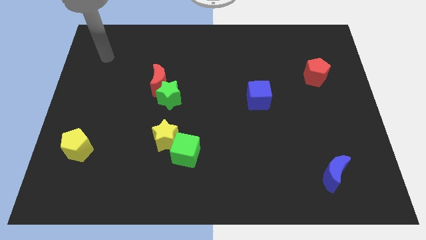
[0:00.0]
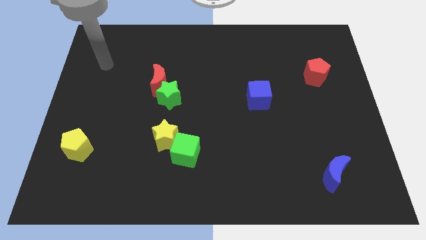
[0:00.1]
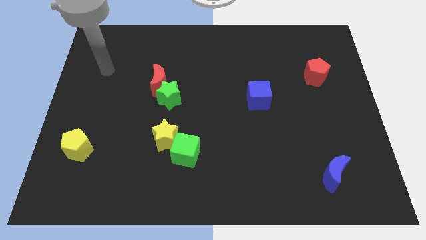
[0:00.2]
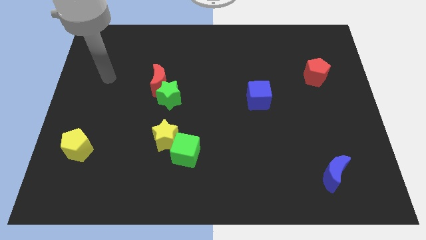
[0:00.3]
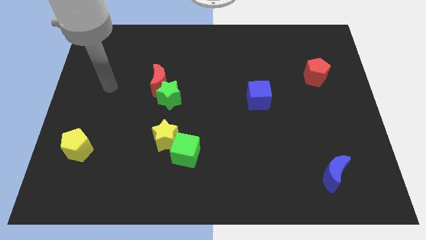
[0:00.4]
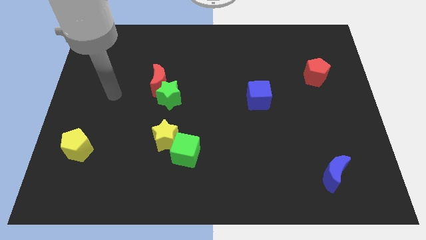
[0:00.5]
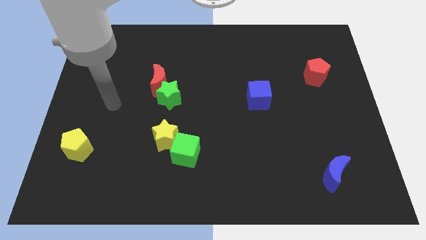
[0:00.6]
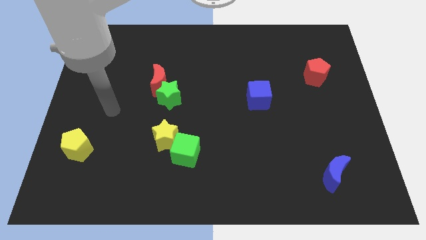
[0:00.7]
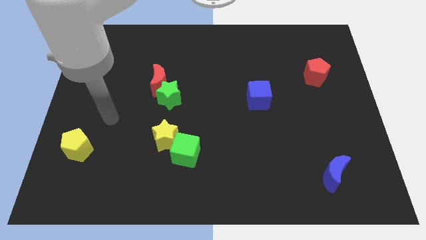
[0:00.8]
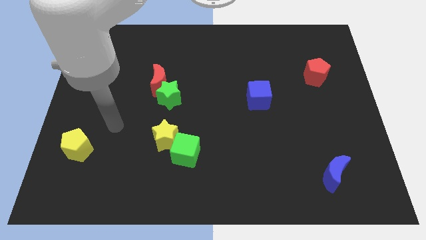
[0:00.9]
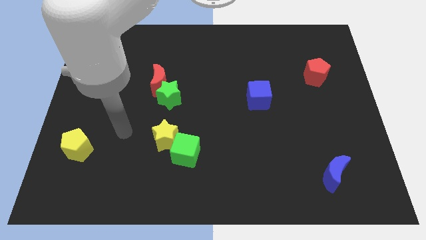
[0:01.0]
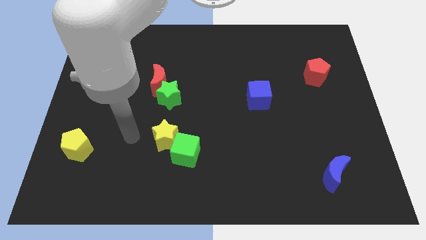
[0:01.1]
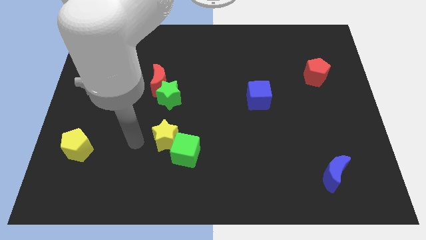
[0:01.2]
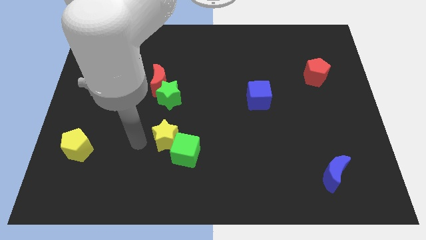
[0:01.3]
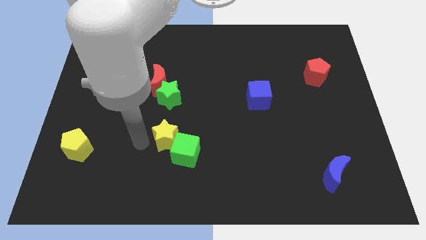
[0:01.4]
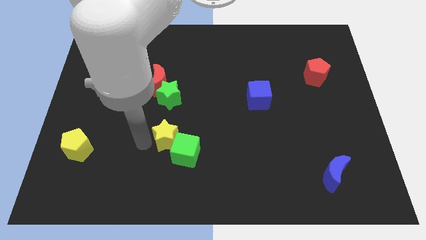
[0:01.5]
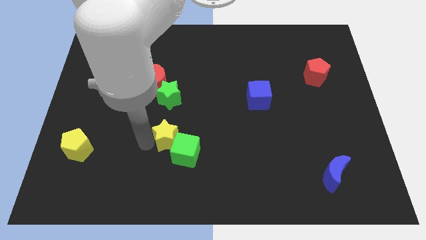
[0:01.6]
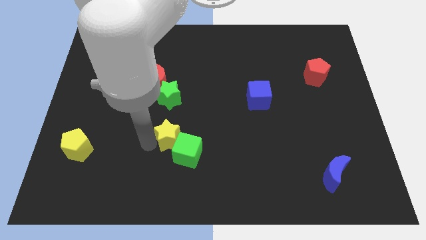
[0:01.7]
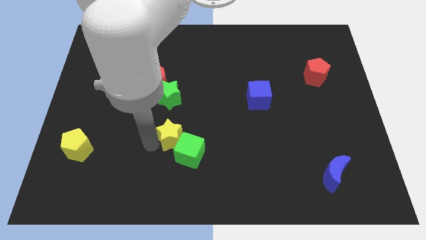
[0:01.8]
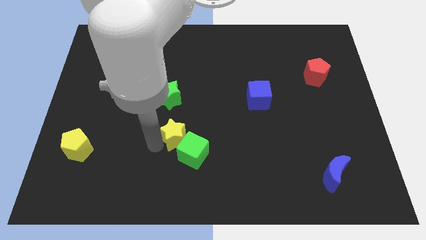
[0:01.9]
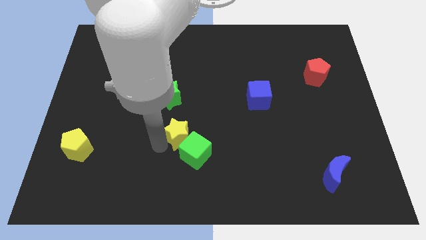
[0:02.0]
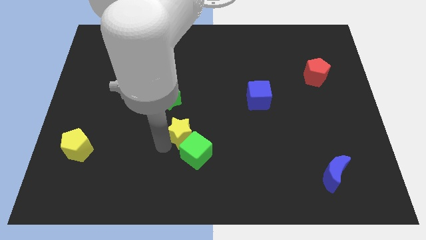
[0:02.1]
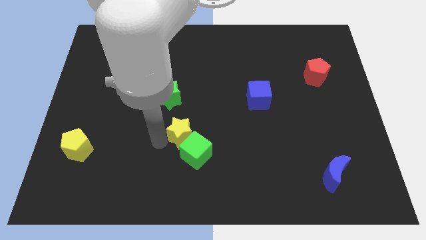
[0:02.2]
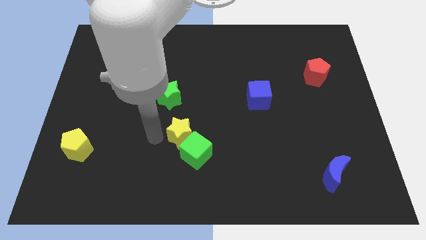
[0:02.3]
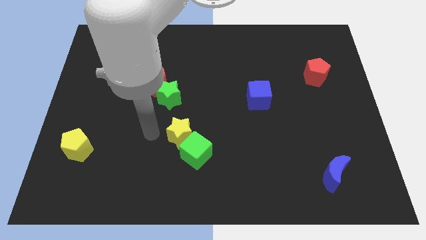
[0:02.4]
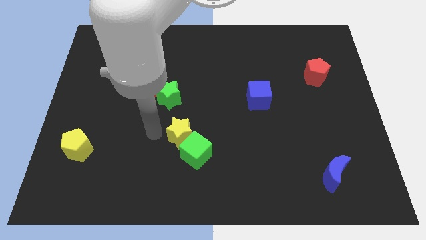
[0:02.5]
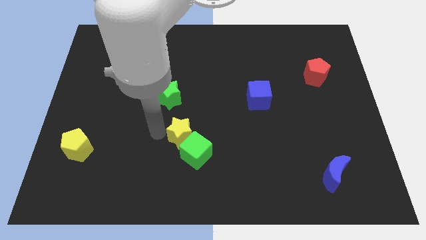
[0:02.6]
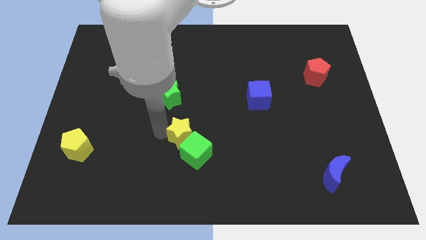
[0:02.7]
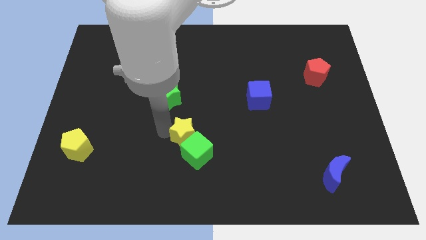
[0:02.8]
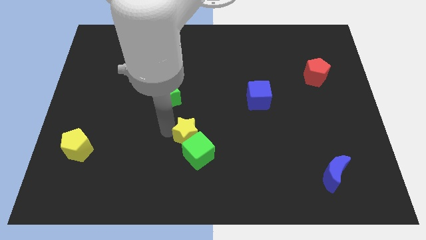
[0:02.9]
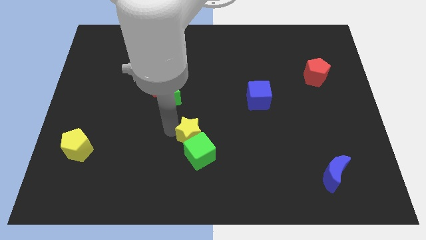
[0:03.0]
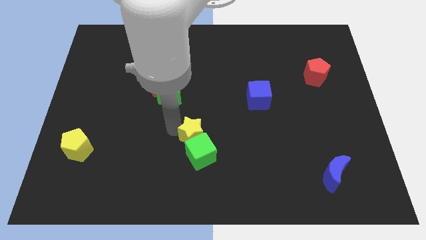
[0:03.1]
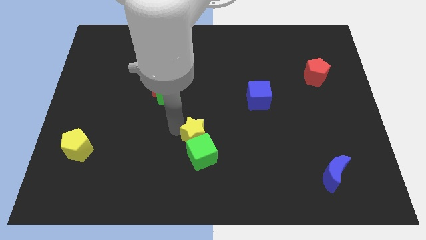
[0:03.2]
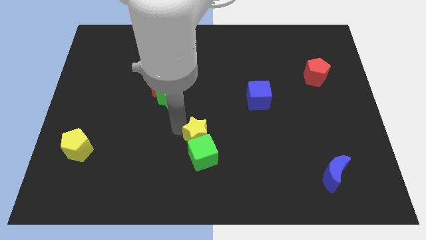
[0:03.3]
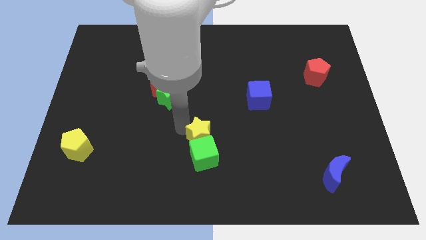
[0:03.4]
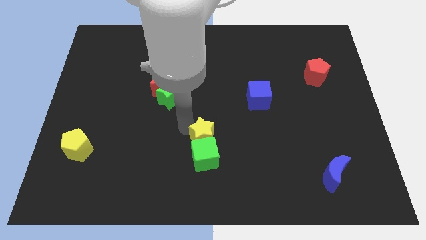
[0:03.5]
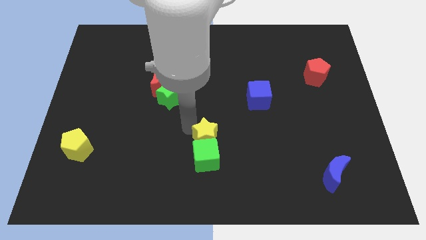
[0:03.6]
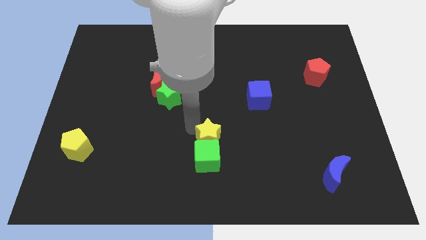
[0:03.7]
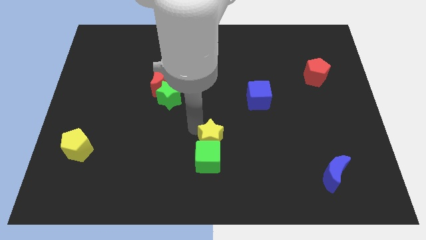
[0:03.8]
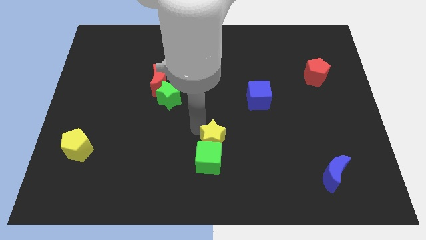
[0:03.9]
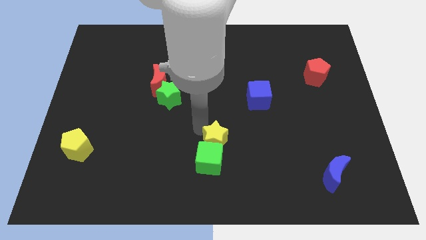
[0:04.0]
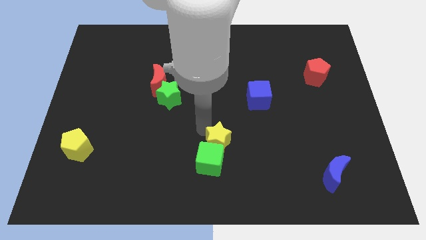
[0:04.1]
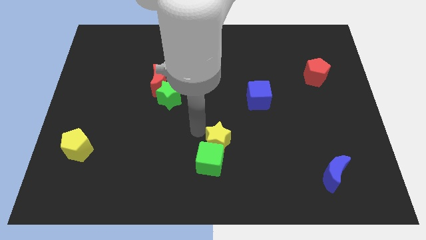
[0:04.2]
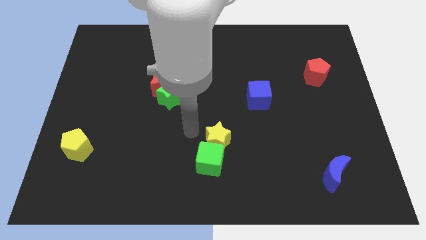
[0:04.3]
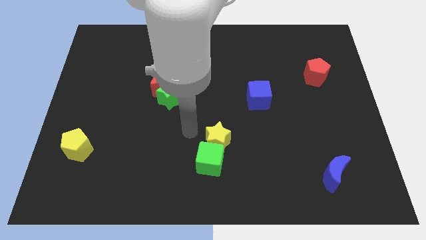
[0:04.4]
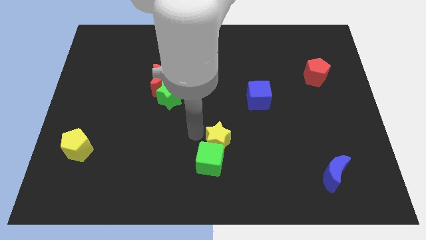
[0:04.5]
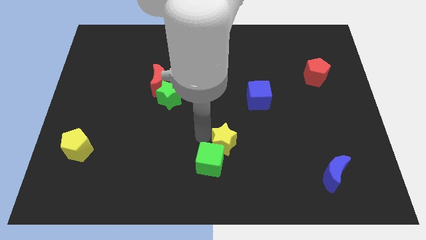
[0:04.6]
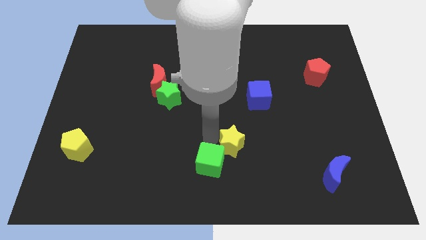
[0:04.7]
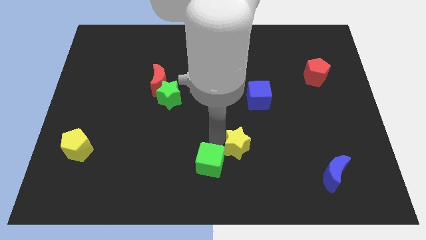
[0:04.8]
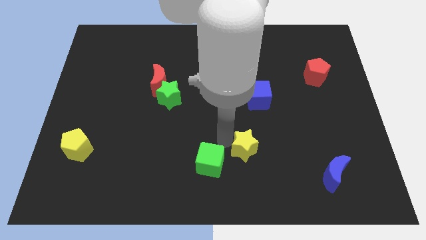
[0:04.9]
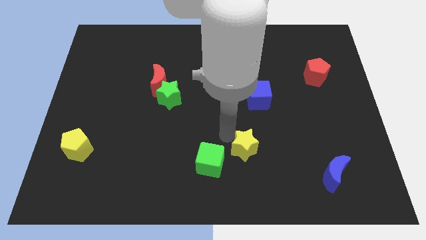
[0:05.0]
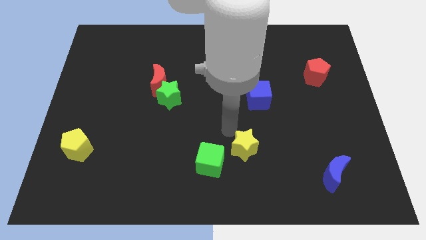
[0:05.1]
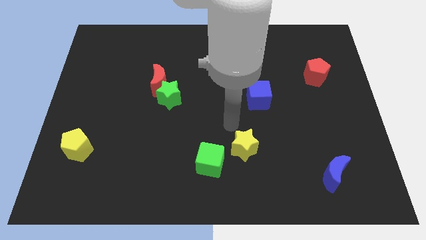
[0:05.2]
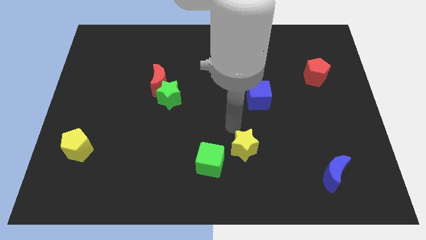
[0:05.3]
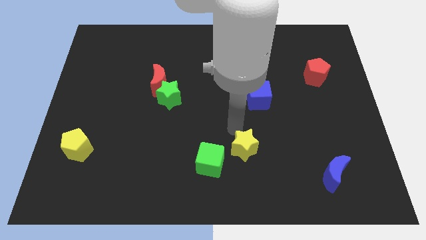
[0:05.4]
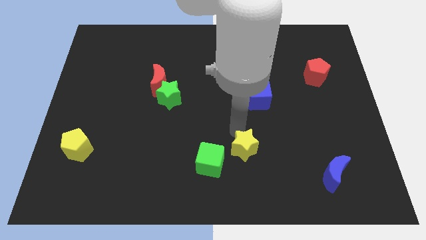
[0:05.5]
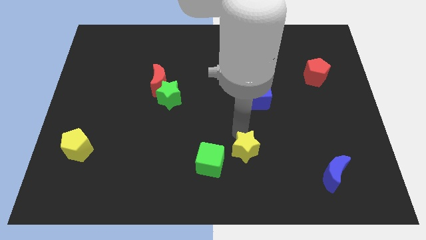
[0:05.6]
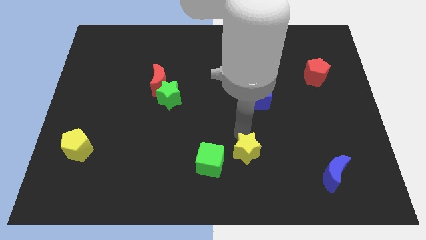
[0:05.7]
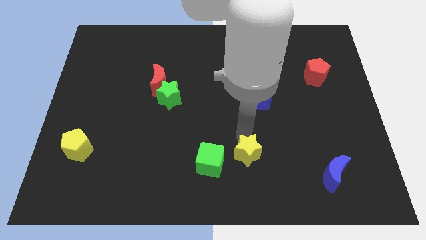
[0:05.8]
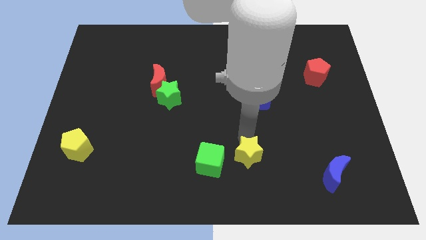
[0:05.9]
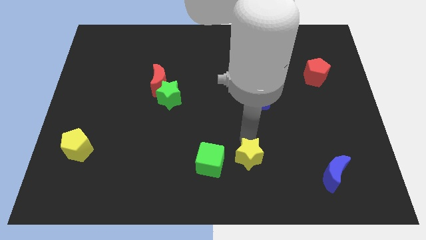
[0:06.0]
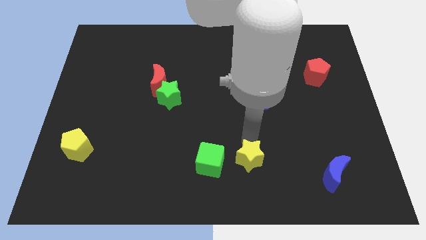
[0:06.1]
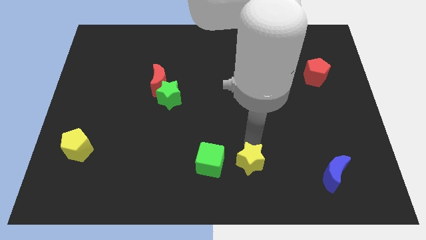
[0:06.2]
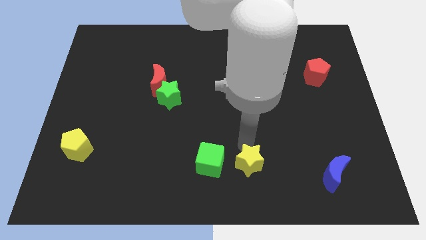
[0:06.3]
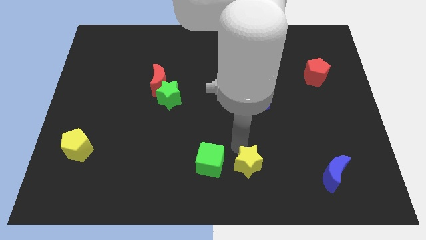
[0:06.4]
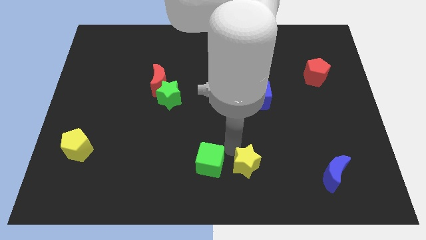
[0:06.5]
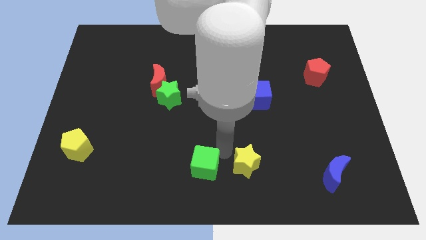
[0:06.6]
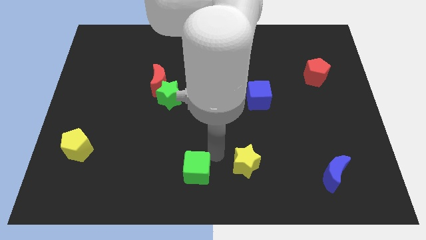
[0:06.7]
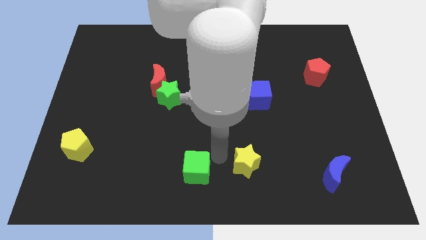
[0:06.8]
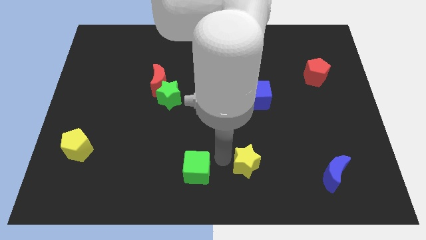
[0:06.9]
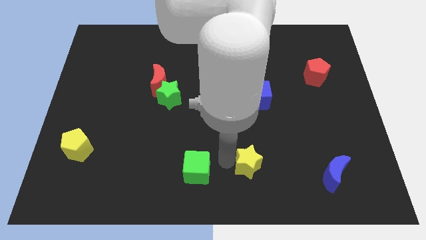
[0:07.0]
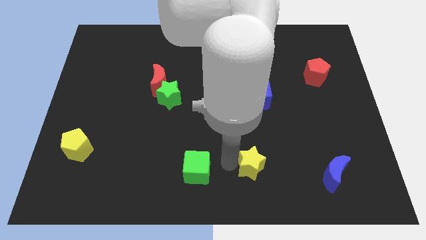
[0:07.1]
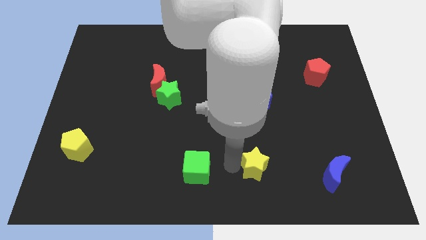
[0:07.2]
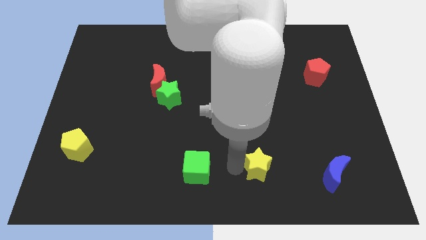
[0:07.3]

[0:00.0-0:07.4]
slide the yellow star left of the blue moon
